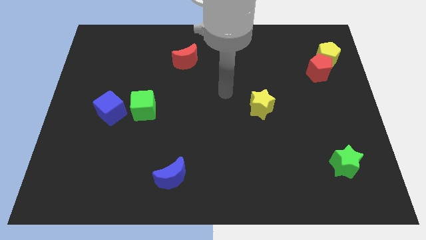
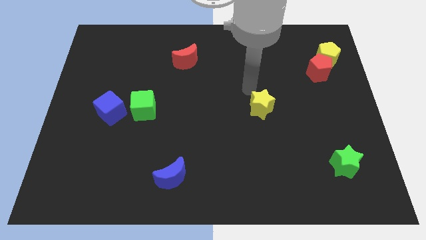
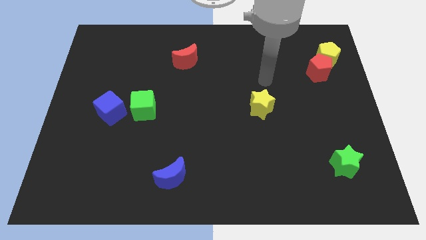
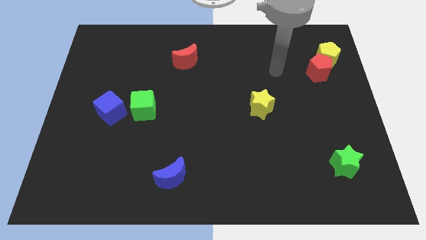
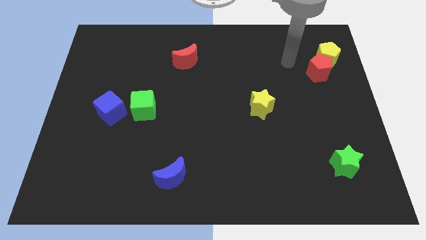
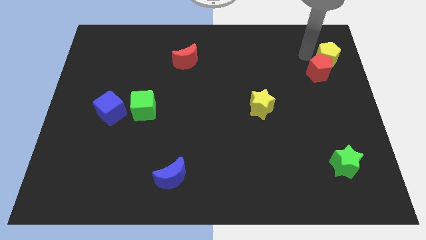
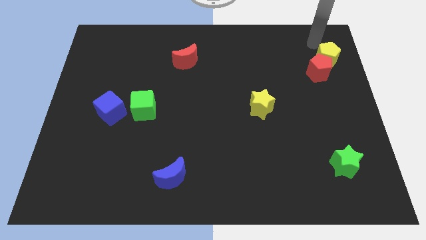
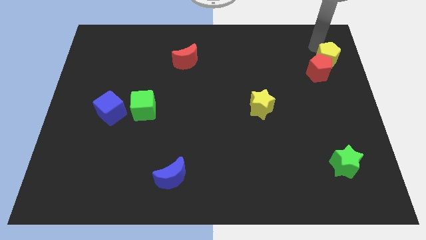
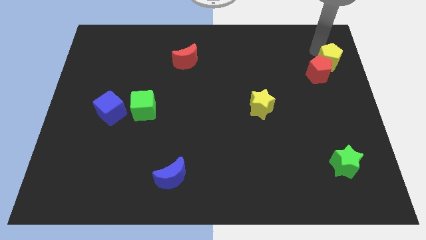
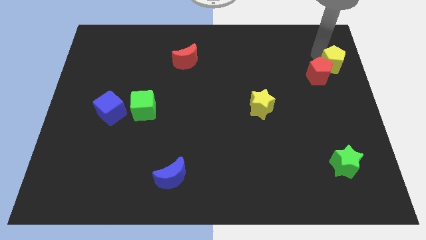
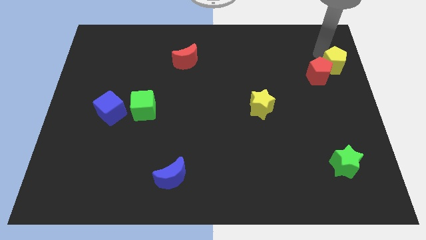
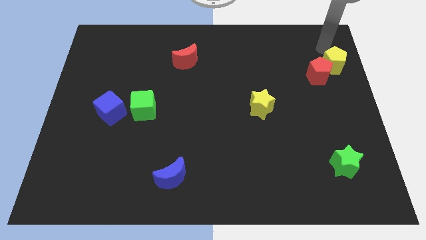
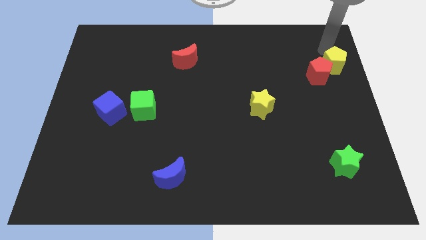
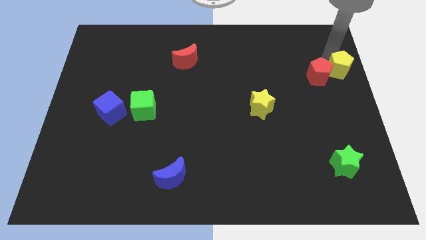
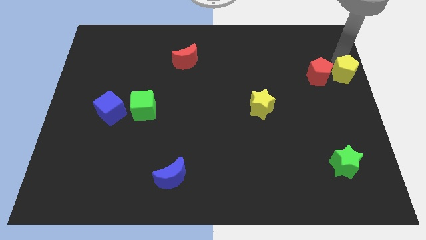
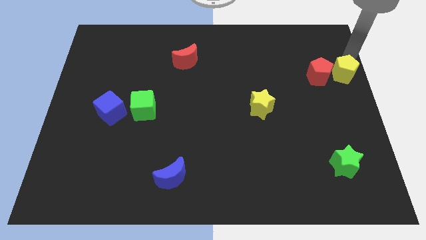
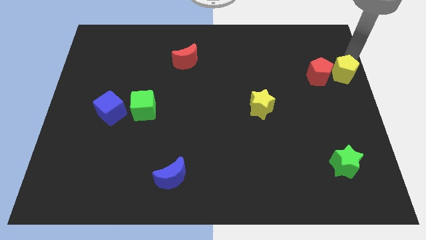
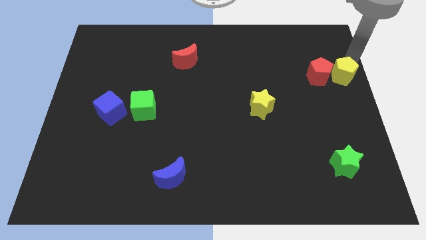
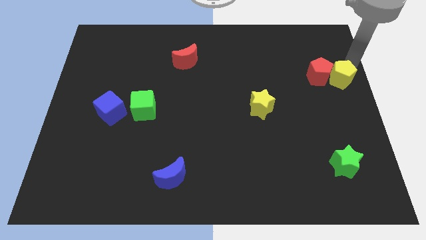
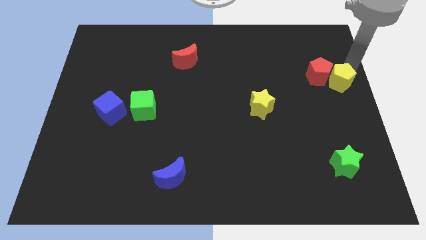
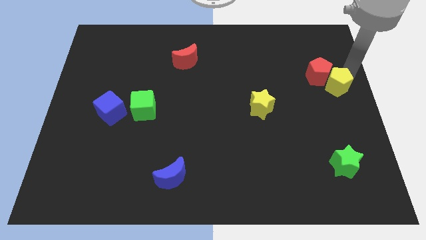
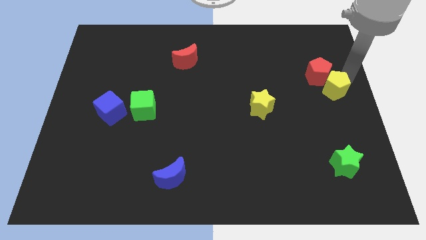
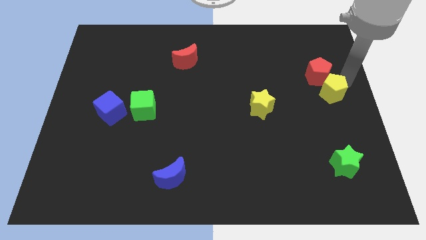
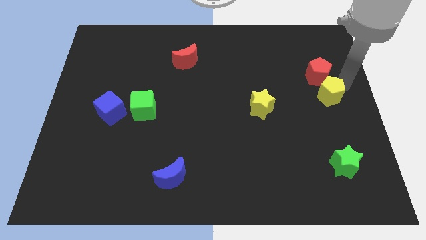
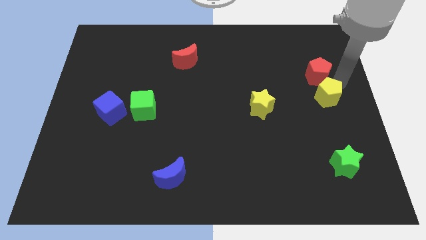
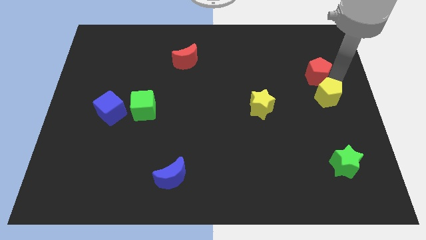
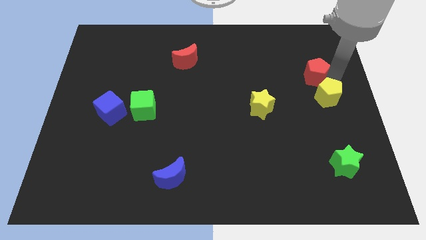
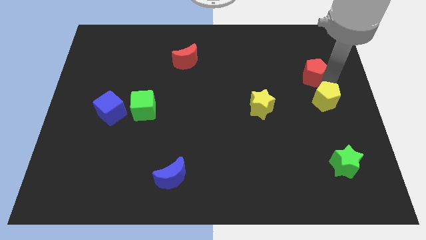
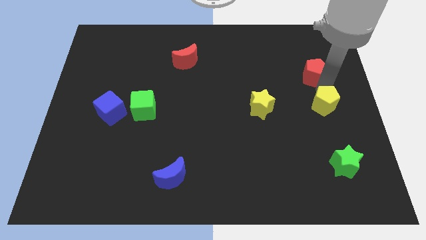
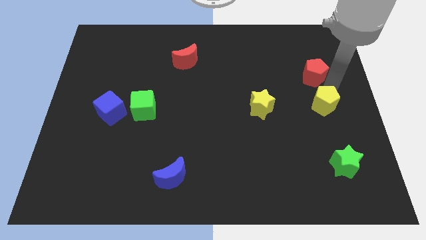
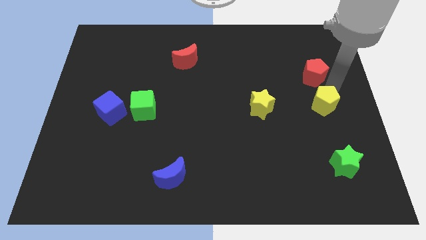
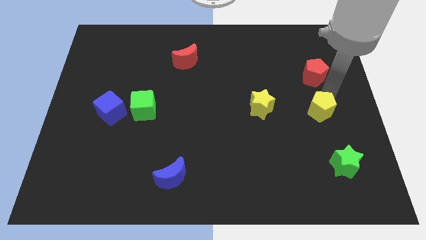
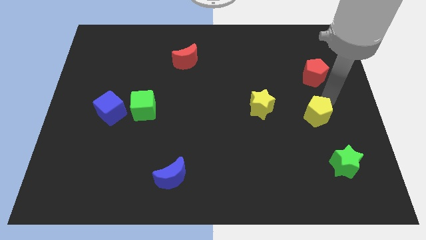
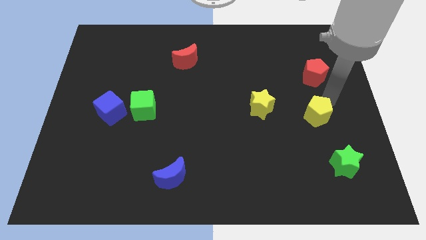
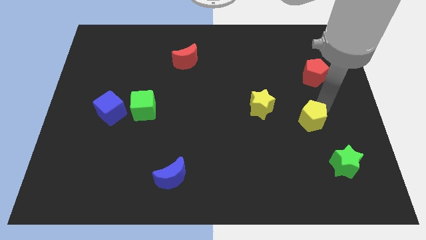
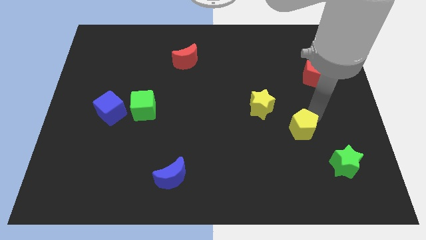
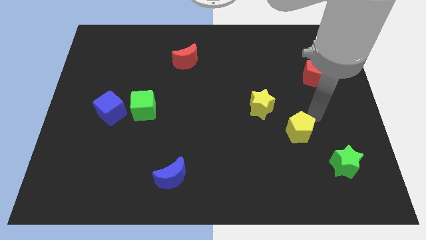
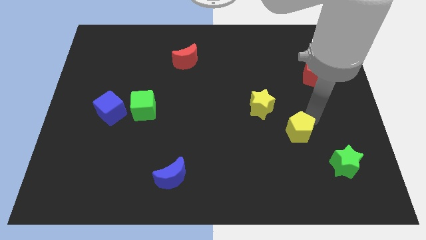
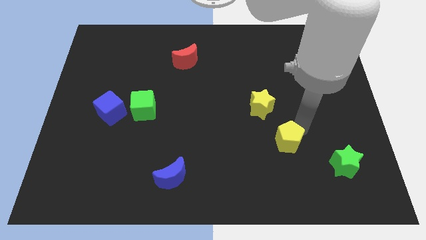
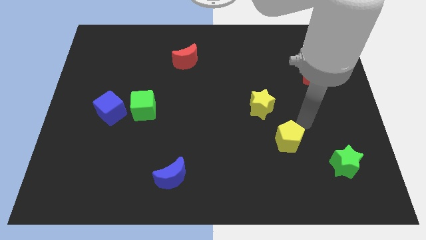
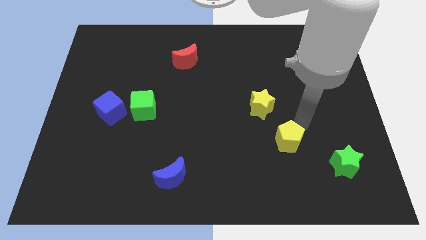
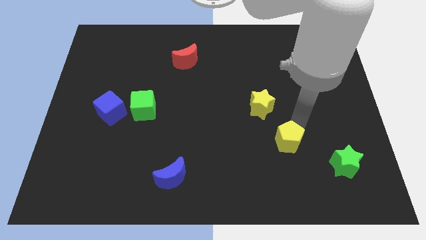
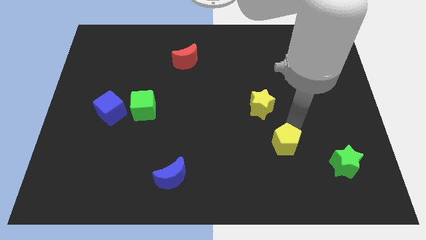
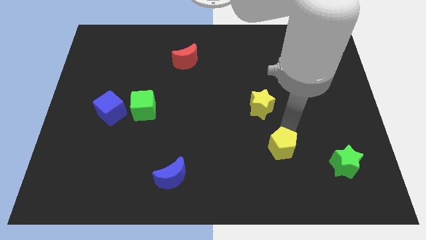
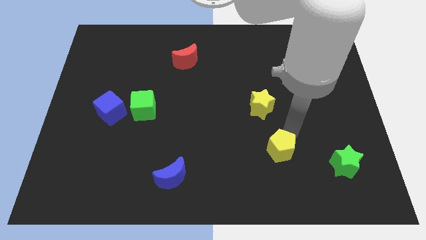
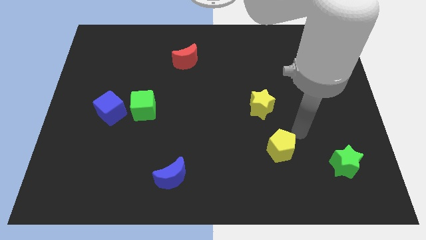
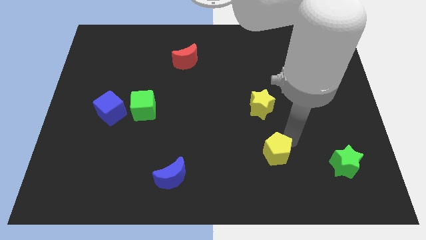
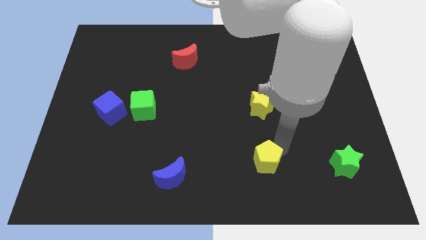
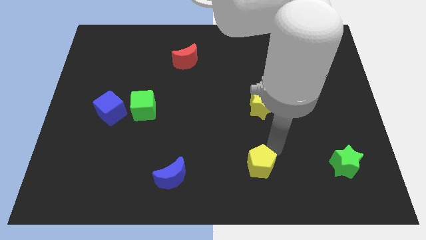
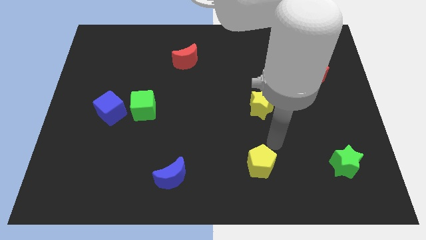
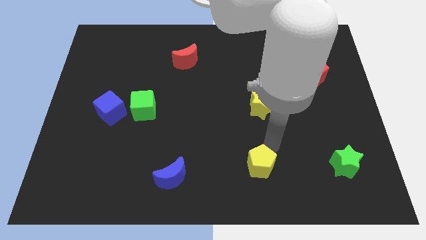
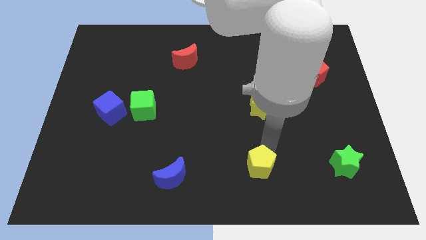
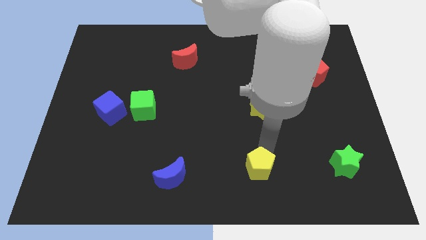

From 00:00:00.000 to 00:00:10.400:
put the yellow pentagon to the bottom side

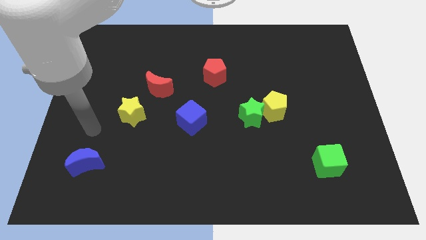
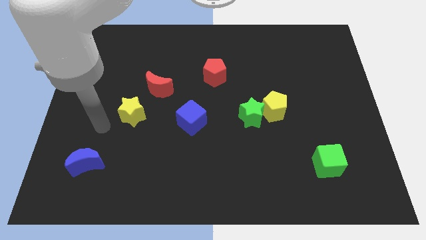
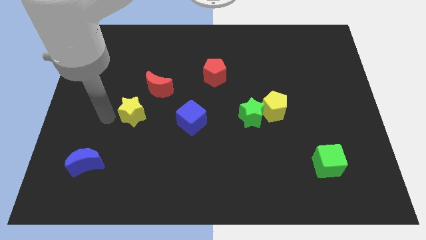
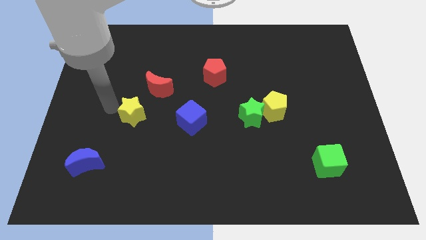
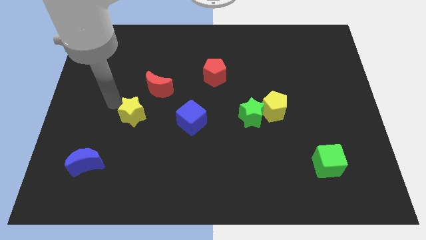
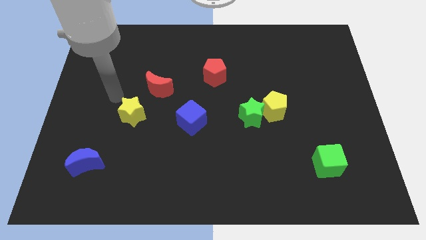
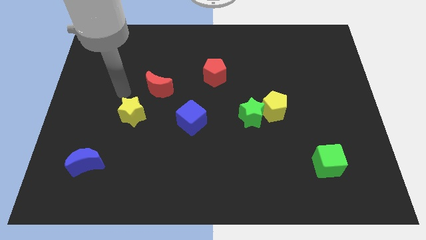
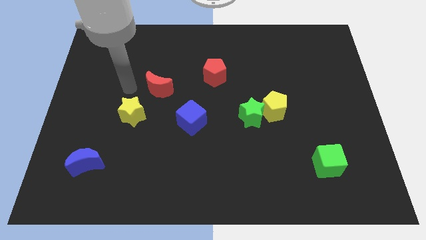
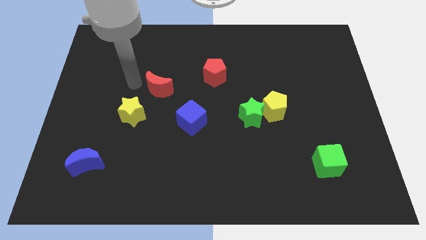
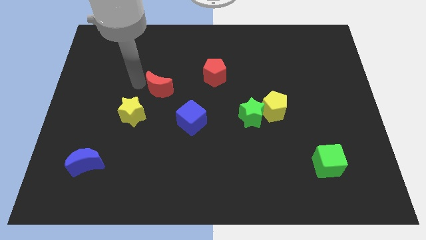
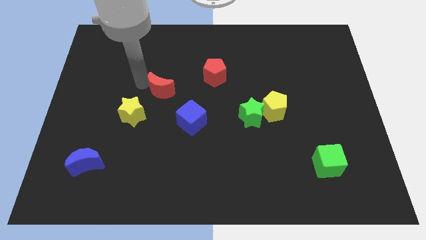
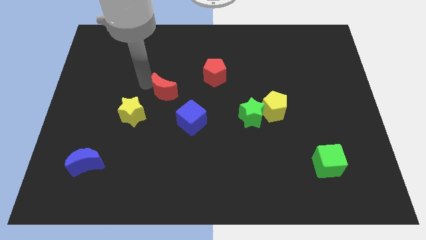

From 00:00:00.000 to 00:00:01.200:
slide the red moon to the center

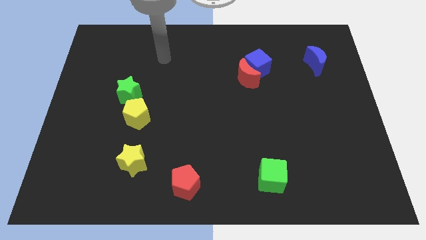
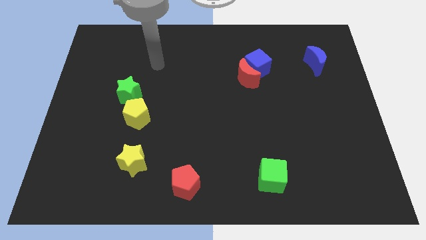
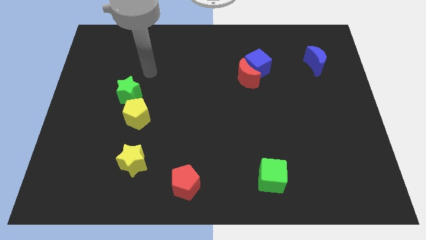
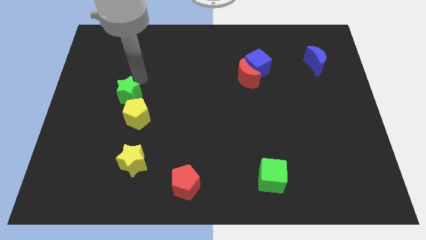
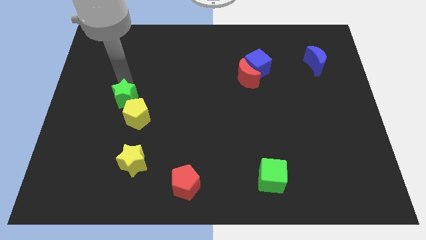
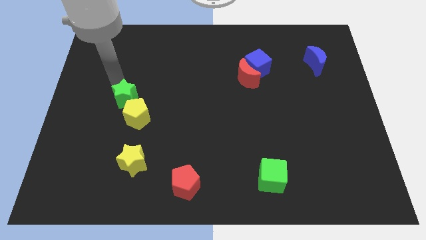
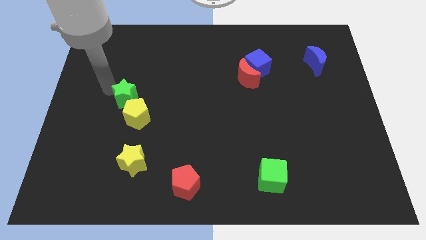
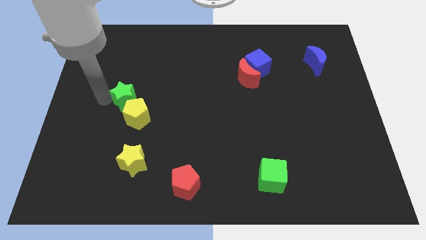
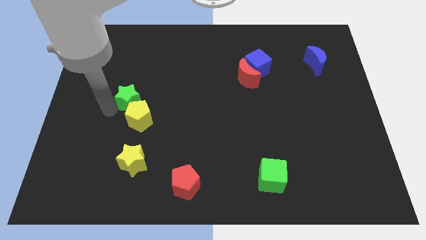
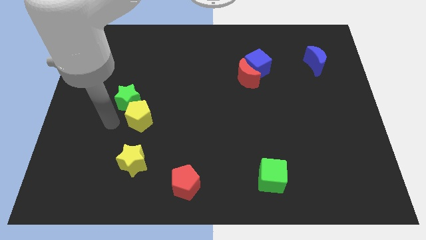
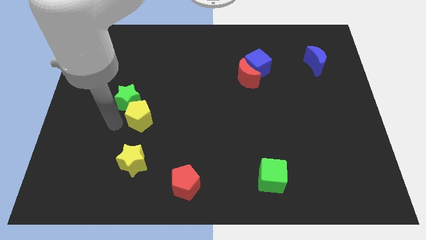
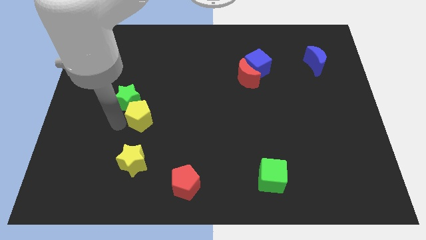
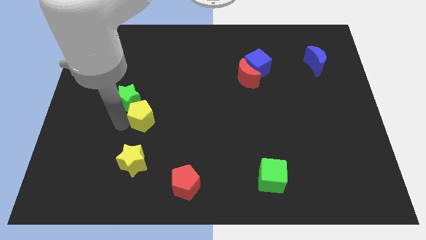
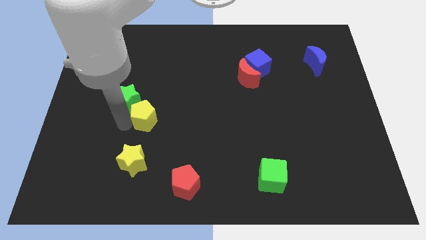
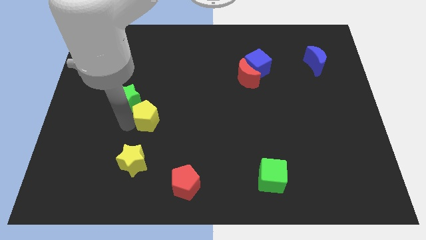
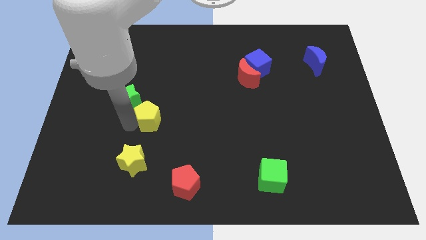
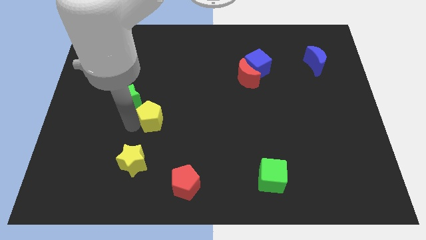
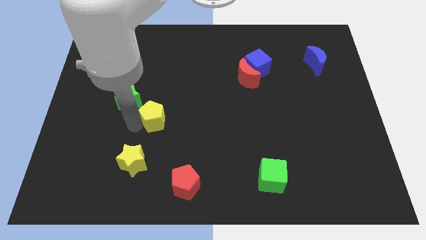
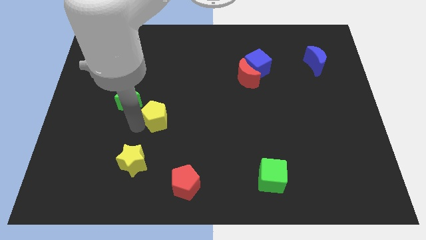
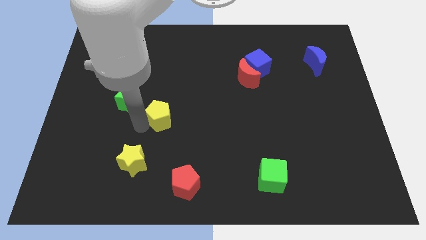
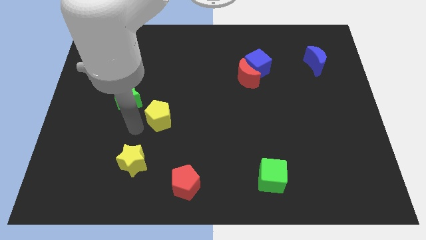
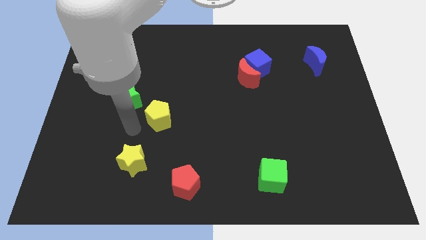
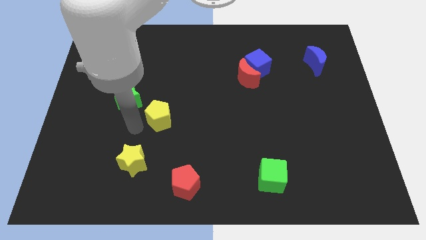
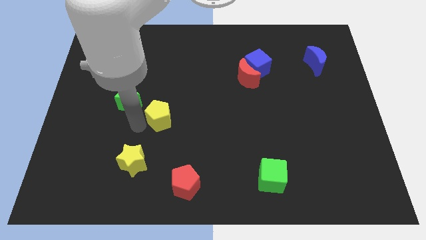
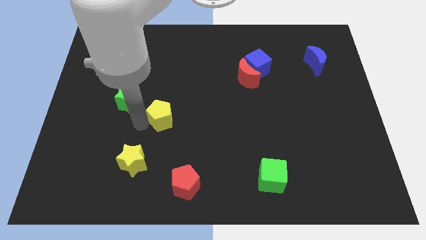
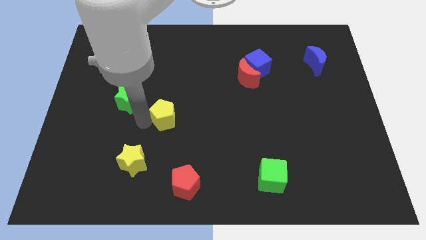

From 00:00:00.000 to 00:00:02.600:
slide the yellow pentagon to the middle of the board
